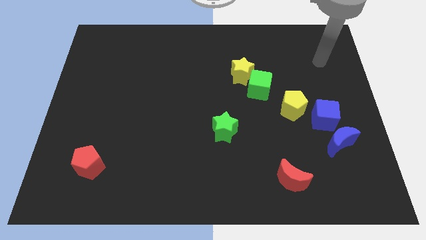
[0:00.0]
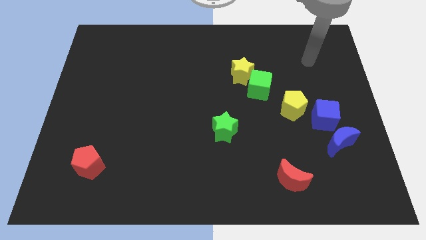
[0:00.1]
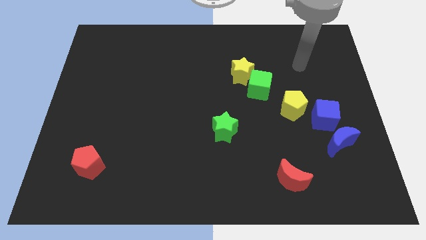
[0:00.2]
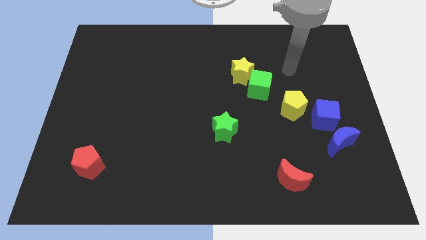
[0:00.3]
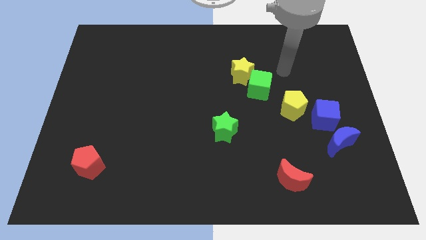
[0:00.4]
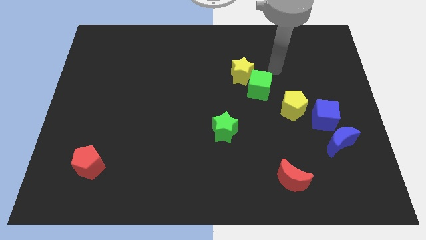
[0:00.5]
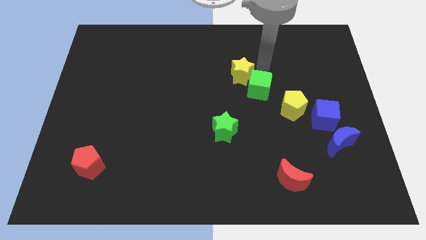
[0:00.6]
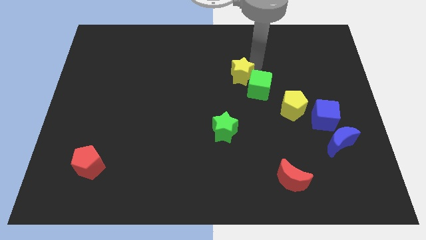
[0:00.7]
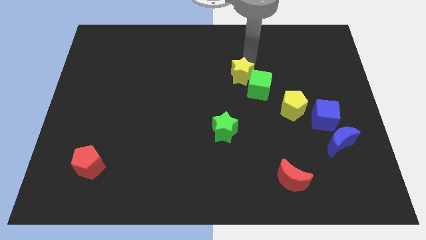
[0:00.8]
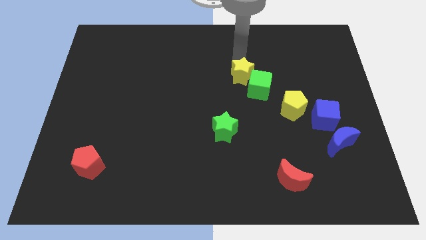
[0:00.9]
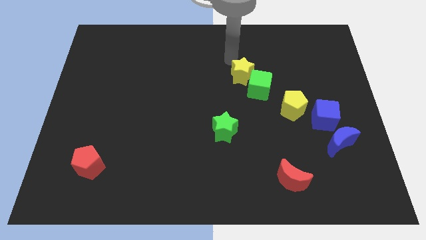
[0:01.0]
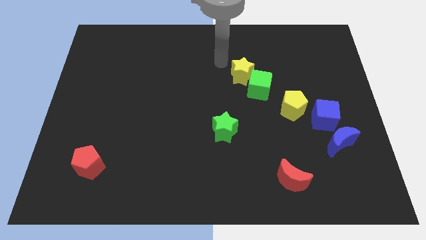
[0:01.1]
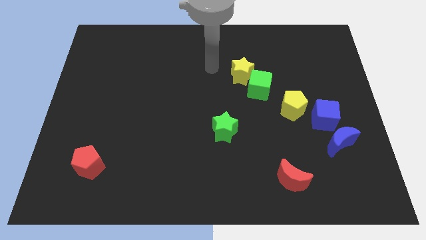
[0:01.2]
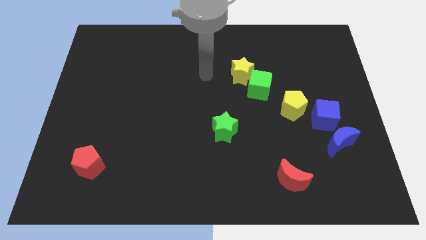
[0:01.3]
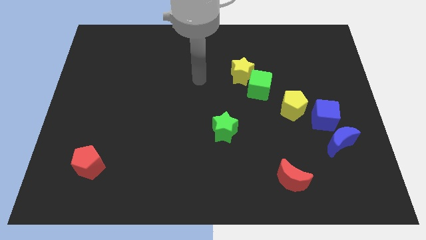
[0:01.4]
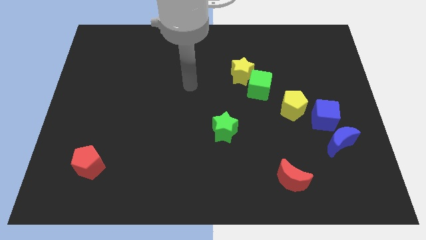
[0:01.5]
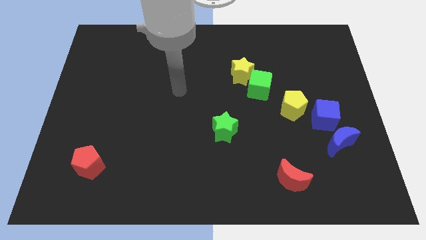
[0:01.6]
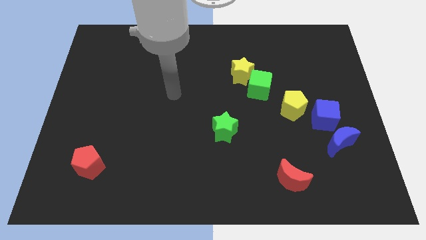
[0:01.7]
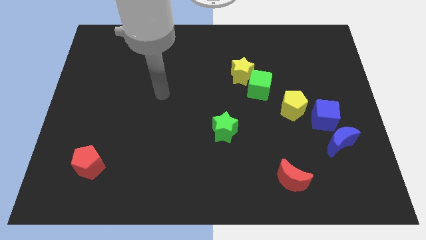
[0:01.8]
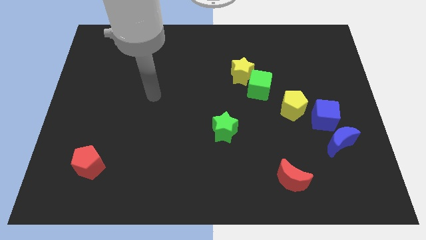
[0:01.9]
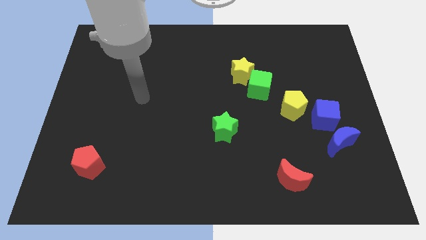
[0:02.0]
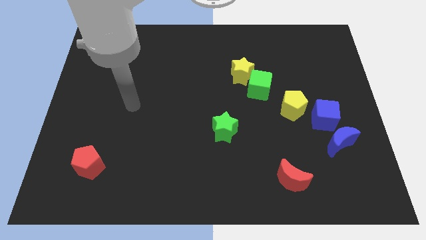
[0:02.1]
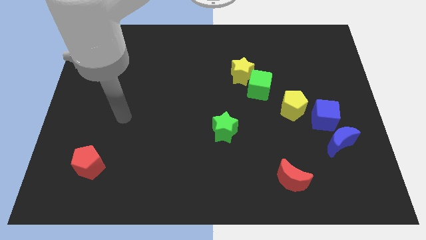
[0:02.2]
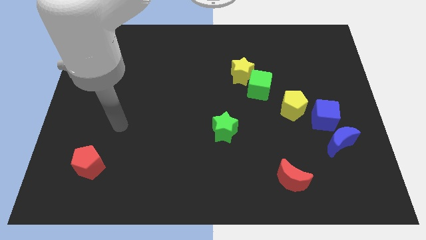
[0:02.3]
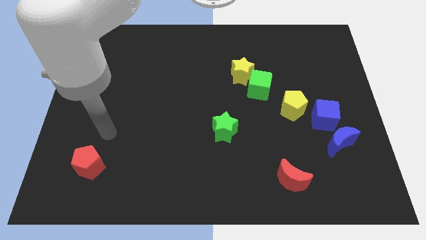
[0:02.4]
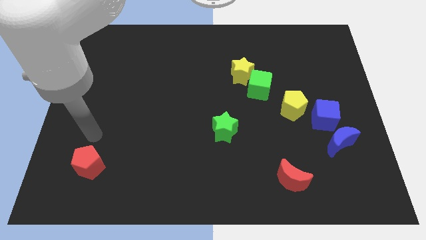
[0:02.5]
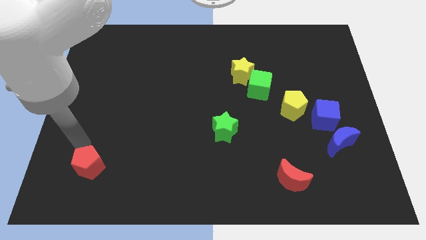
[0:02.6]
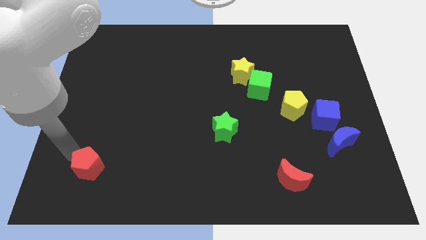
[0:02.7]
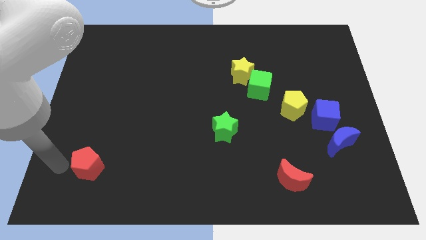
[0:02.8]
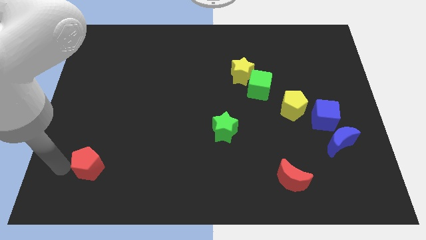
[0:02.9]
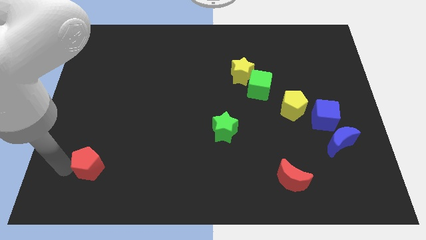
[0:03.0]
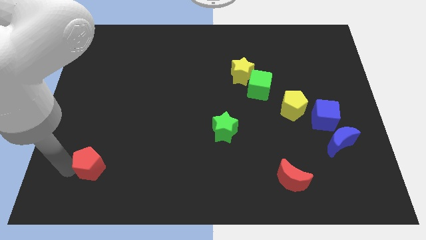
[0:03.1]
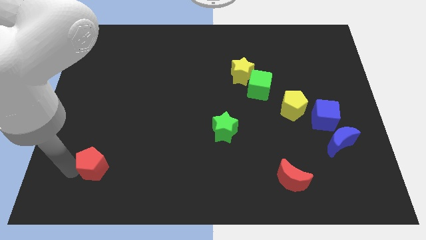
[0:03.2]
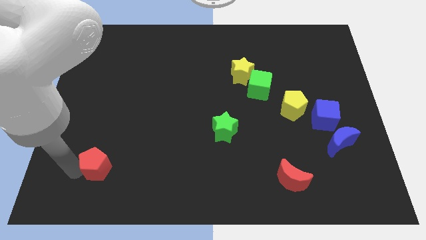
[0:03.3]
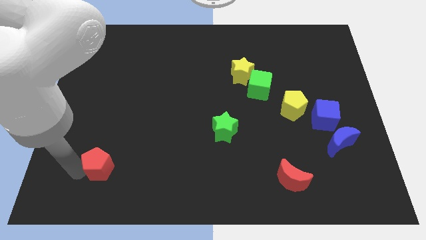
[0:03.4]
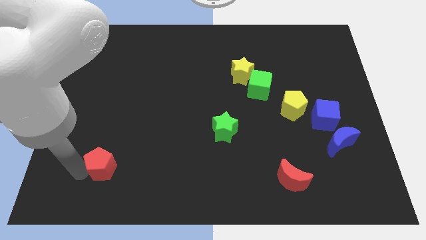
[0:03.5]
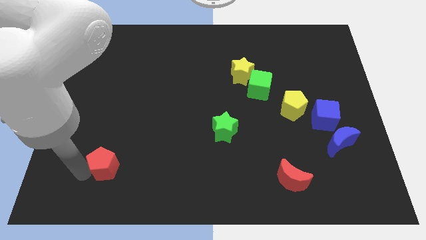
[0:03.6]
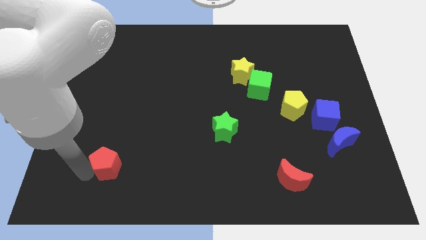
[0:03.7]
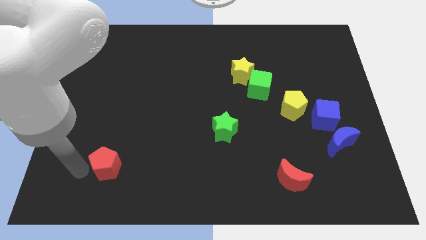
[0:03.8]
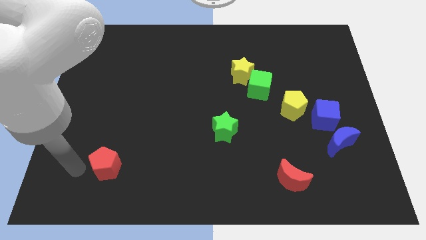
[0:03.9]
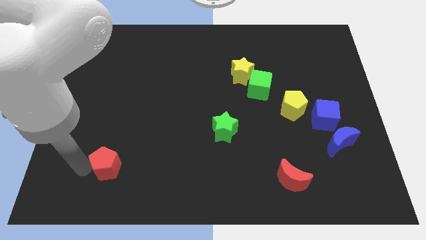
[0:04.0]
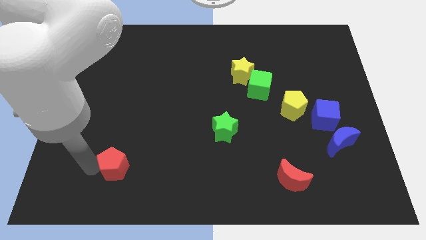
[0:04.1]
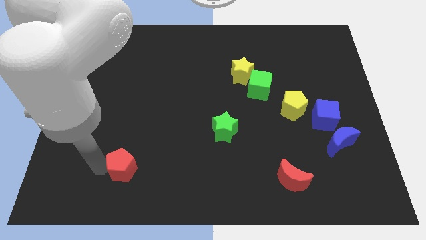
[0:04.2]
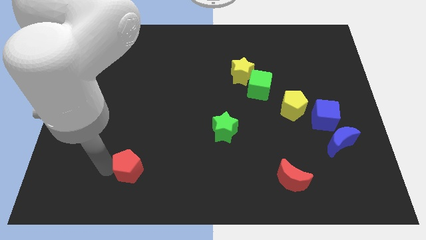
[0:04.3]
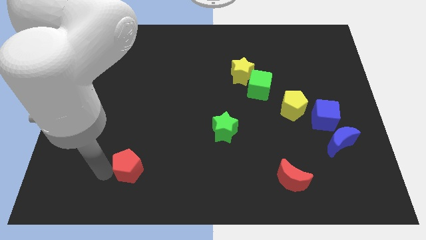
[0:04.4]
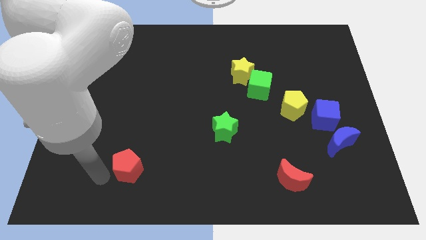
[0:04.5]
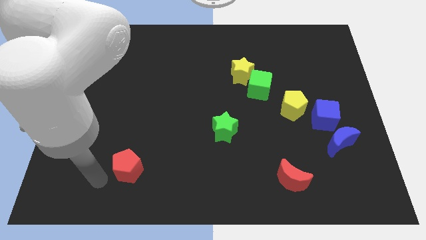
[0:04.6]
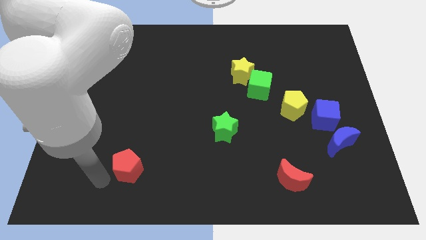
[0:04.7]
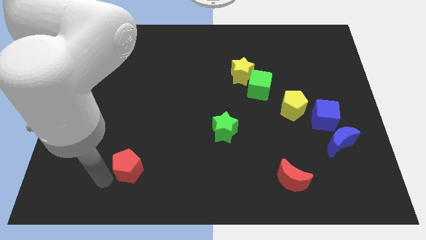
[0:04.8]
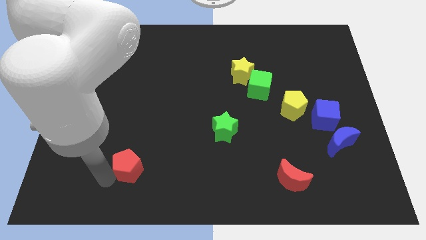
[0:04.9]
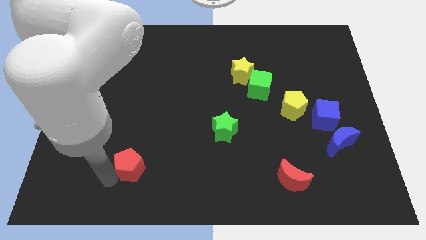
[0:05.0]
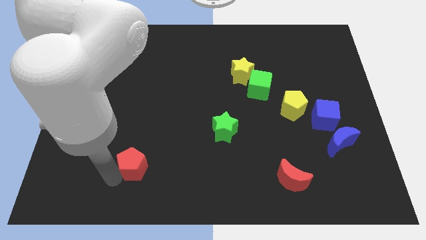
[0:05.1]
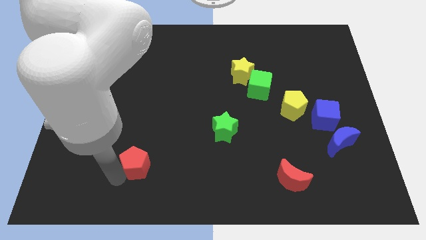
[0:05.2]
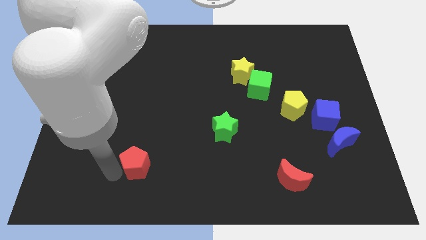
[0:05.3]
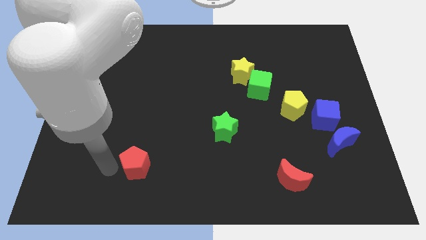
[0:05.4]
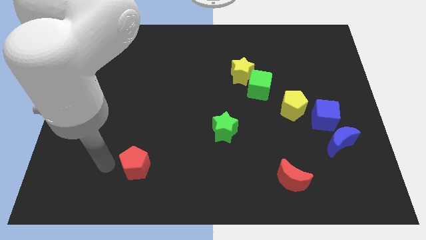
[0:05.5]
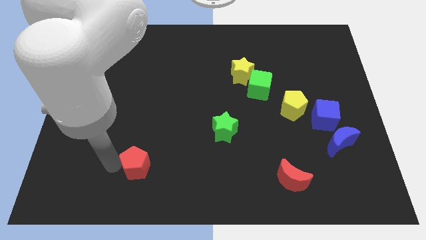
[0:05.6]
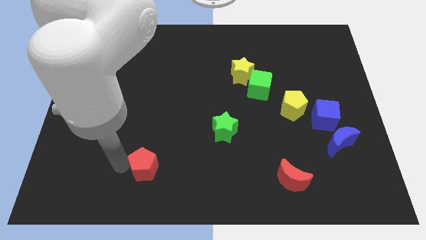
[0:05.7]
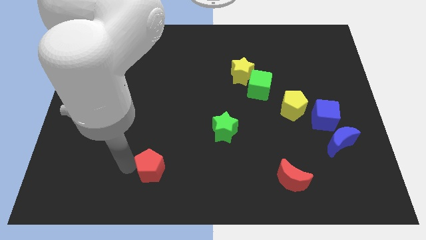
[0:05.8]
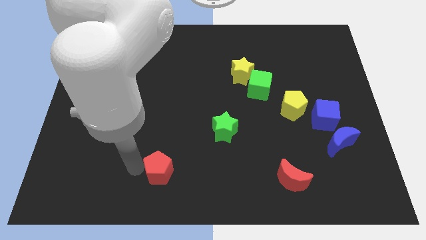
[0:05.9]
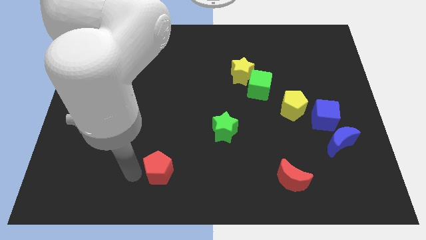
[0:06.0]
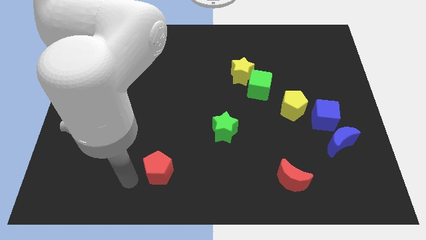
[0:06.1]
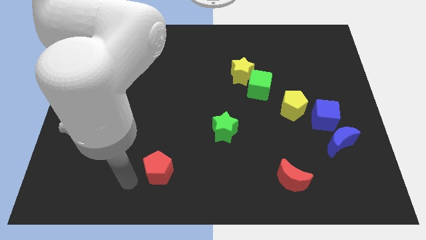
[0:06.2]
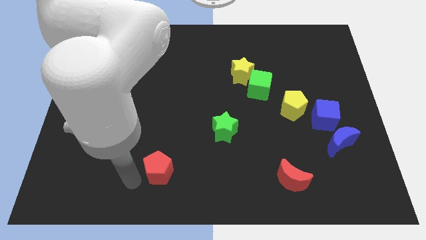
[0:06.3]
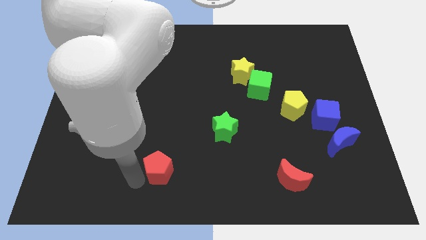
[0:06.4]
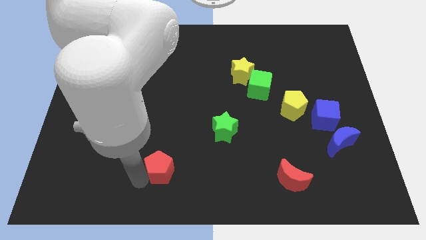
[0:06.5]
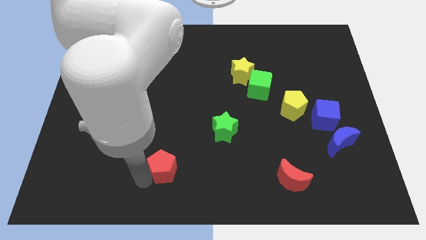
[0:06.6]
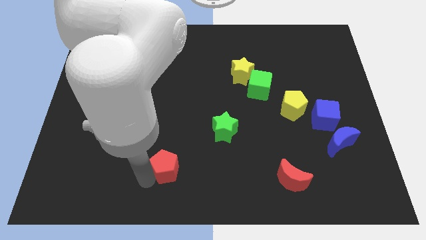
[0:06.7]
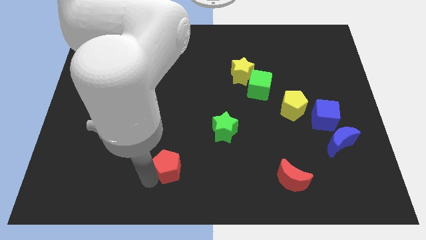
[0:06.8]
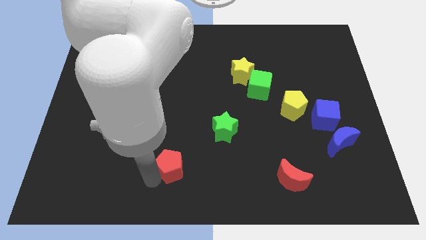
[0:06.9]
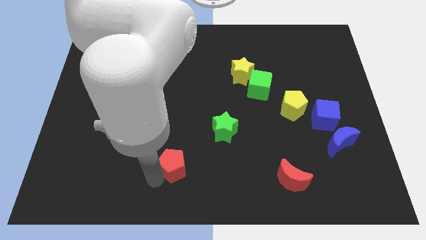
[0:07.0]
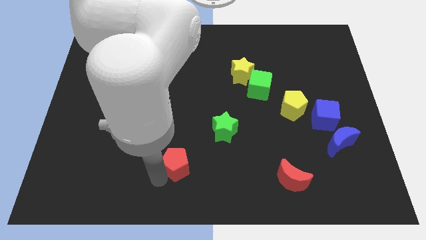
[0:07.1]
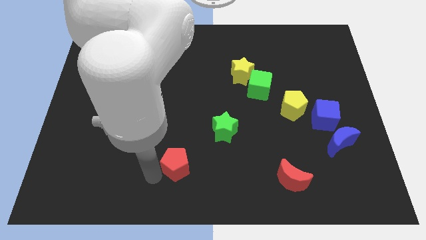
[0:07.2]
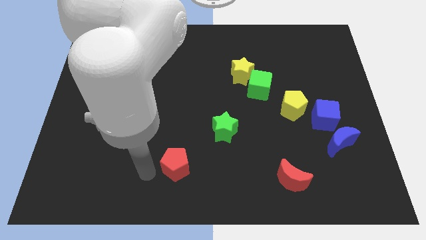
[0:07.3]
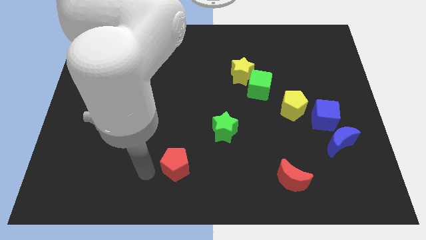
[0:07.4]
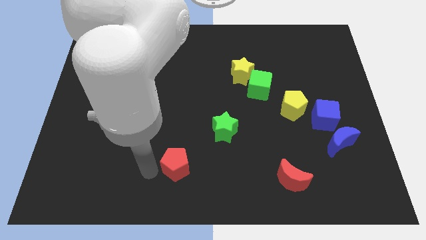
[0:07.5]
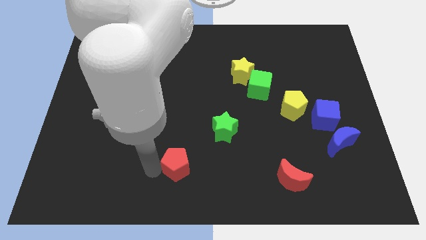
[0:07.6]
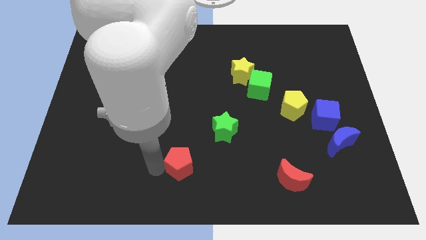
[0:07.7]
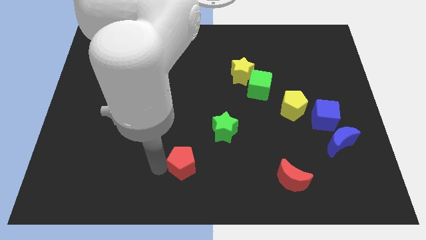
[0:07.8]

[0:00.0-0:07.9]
move the red pentagon right
